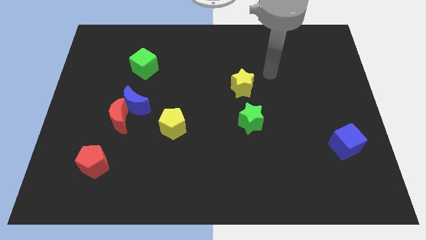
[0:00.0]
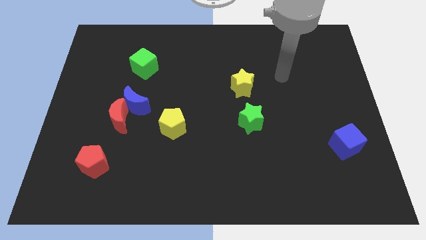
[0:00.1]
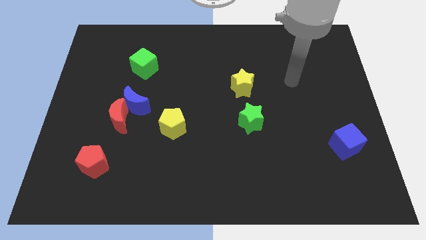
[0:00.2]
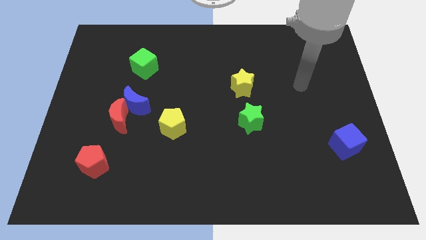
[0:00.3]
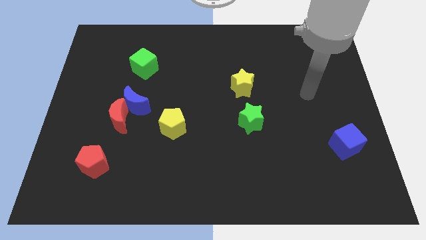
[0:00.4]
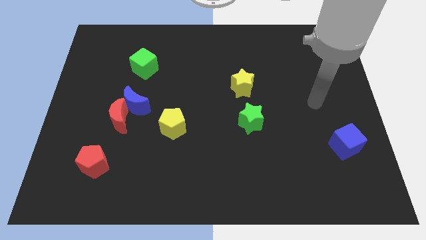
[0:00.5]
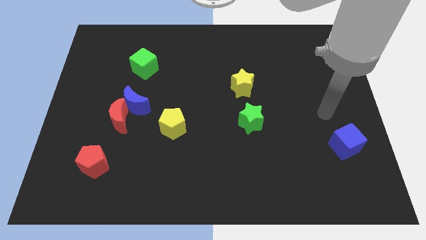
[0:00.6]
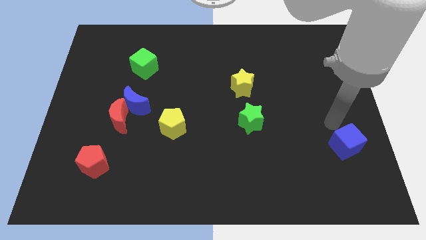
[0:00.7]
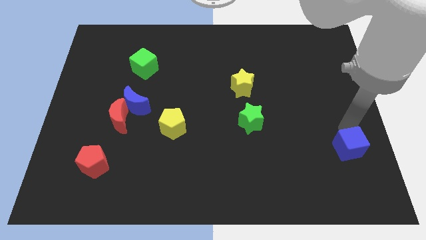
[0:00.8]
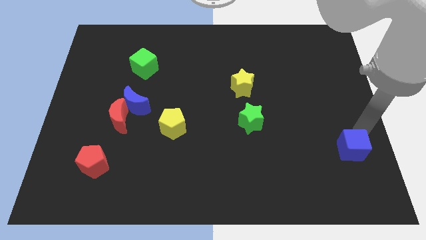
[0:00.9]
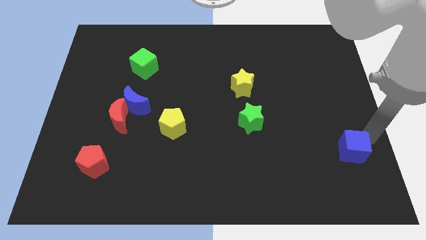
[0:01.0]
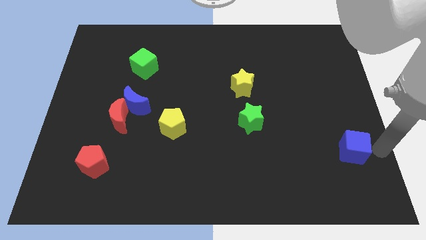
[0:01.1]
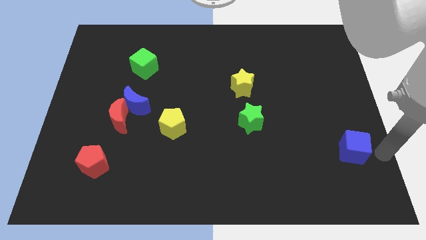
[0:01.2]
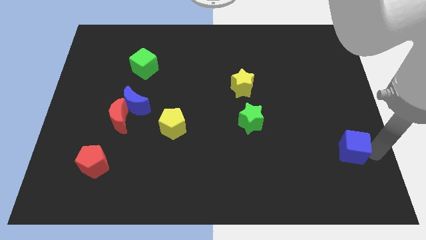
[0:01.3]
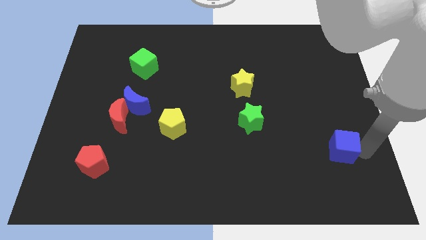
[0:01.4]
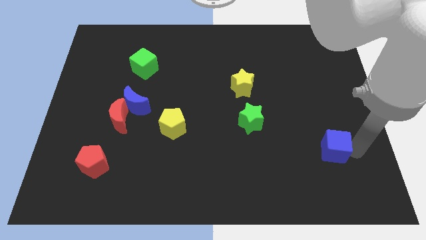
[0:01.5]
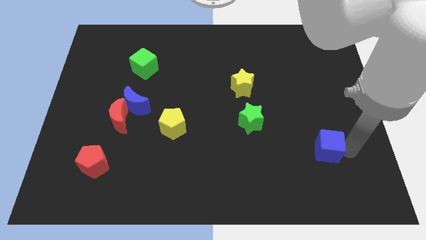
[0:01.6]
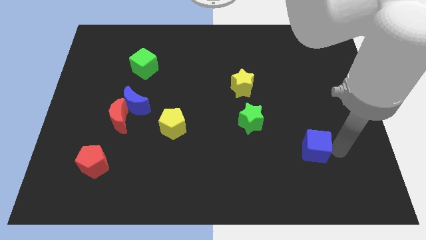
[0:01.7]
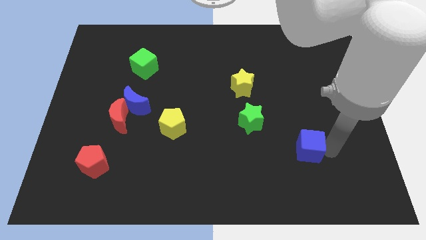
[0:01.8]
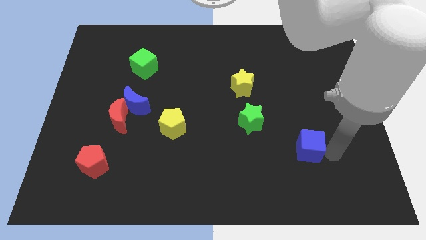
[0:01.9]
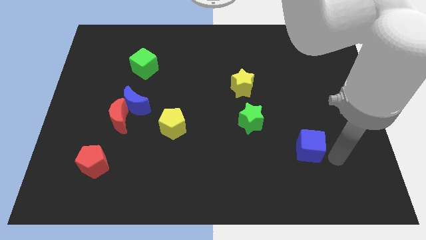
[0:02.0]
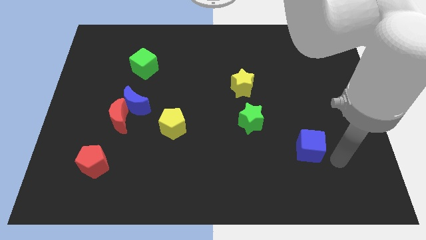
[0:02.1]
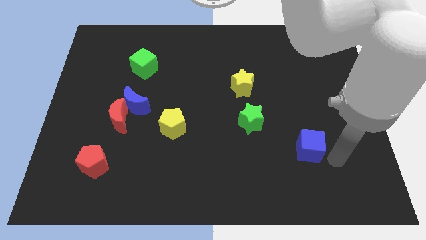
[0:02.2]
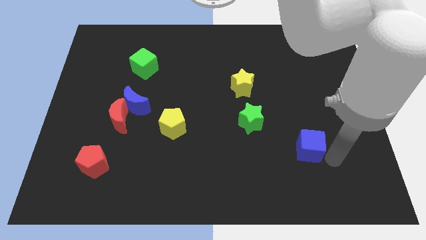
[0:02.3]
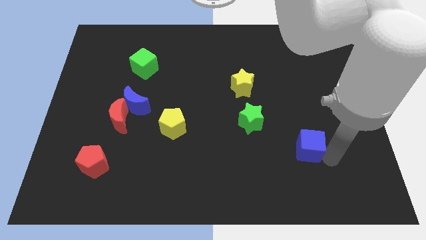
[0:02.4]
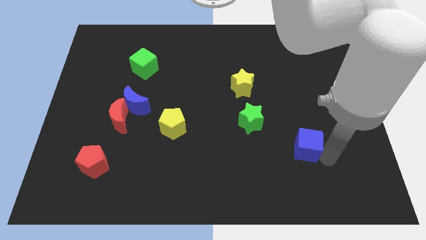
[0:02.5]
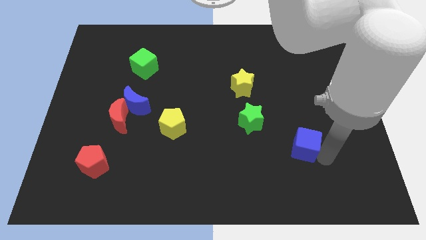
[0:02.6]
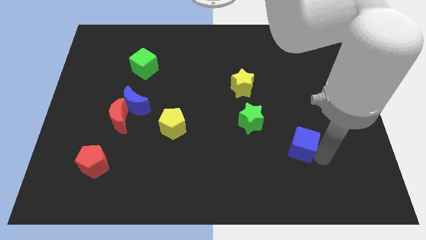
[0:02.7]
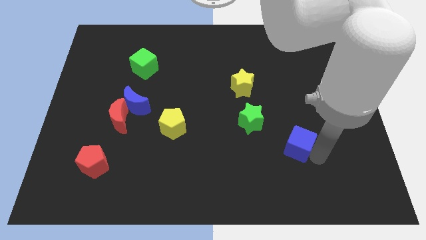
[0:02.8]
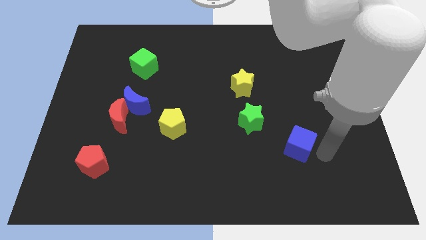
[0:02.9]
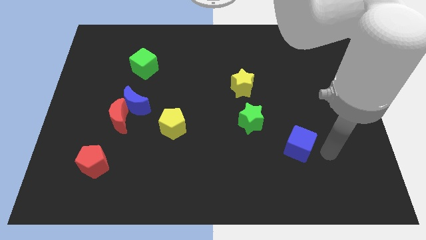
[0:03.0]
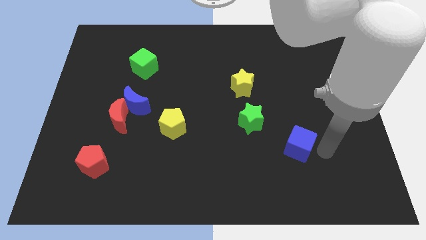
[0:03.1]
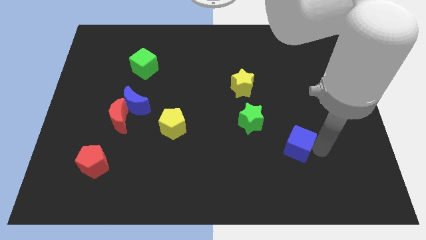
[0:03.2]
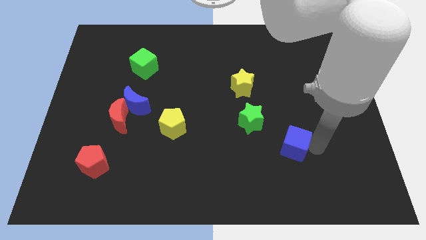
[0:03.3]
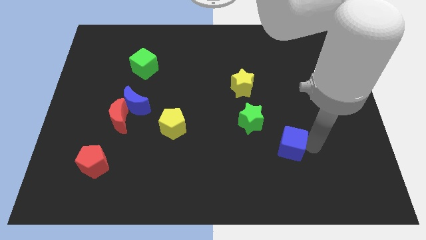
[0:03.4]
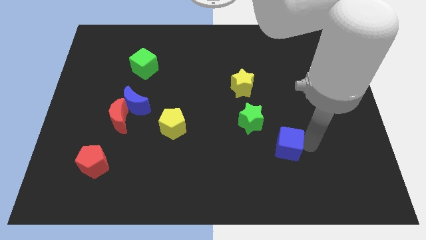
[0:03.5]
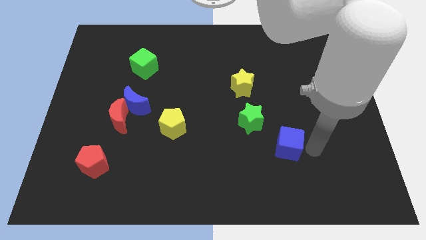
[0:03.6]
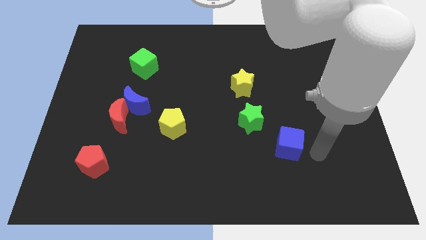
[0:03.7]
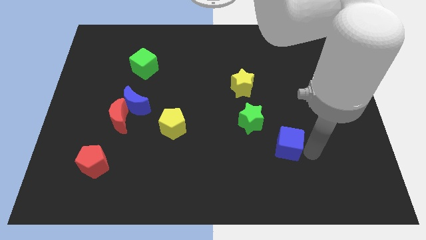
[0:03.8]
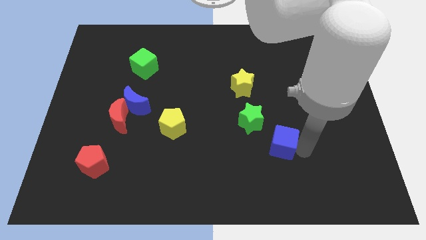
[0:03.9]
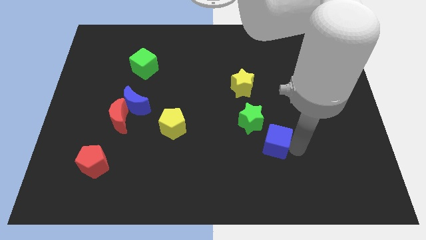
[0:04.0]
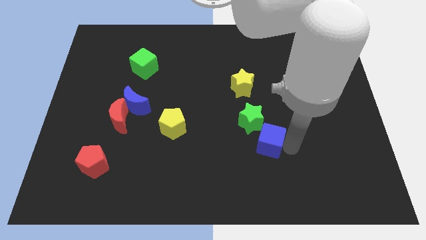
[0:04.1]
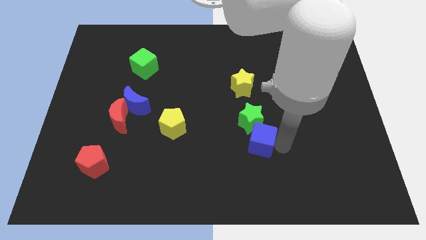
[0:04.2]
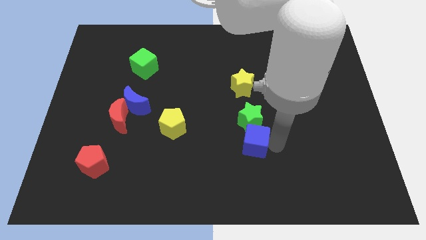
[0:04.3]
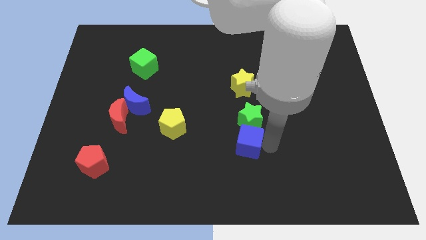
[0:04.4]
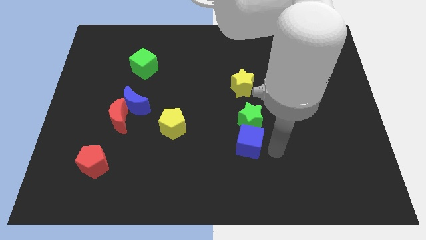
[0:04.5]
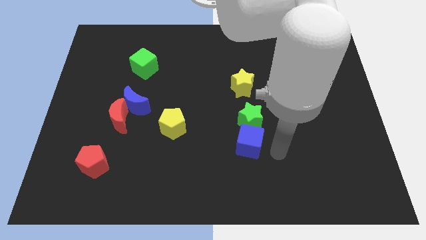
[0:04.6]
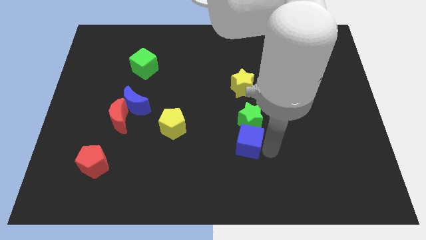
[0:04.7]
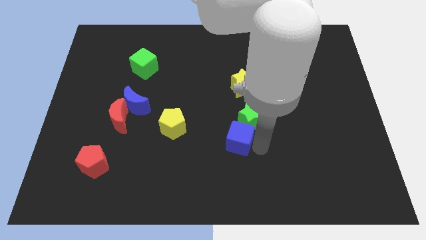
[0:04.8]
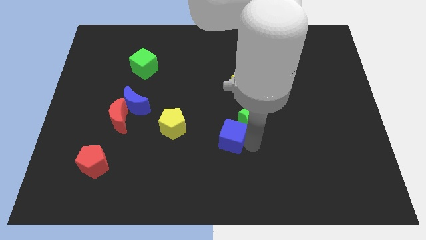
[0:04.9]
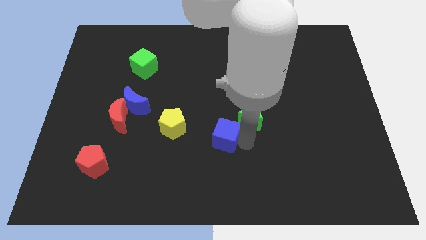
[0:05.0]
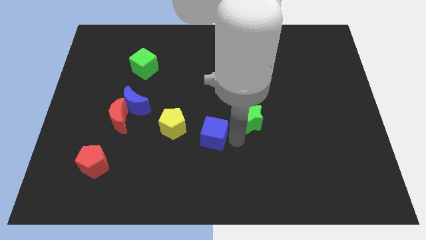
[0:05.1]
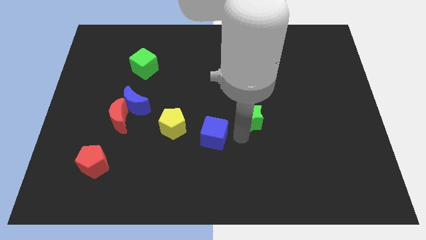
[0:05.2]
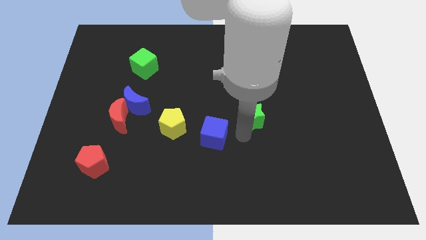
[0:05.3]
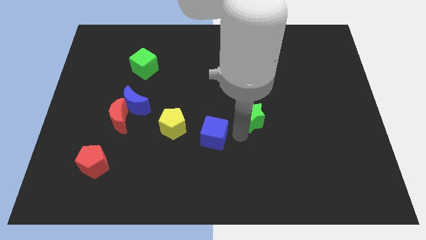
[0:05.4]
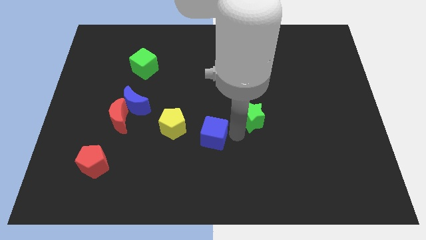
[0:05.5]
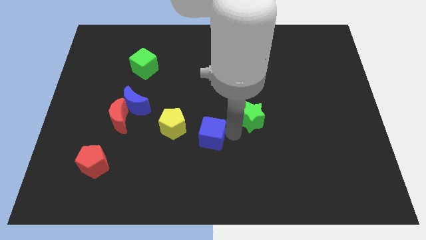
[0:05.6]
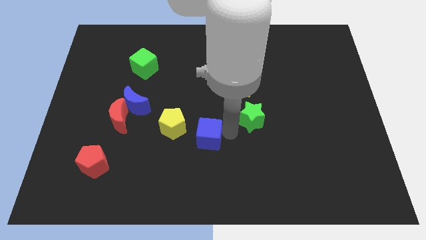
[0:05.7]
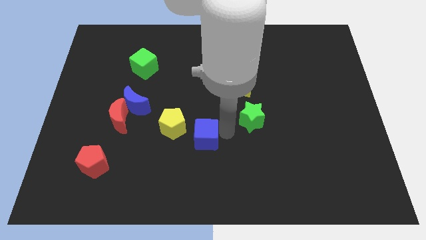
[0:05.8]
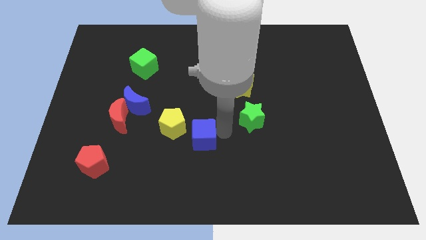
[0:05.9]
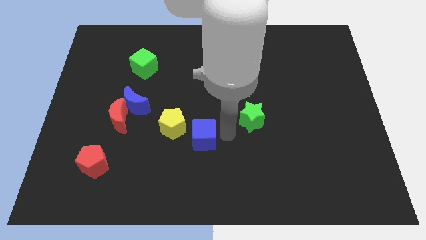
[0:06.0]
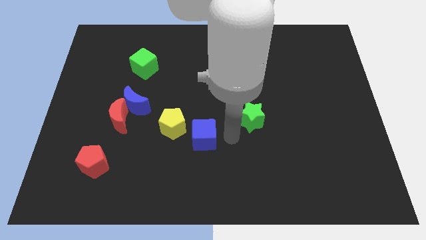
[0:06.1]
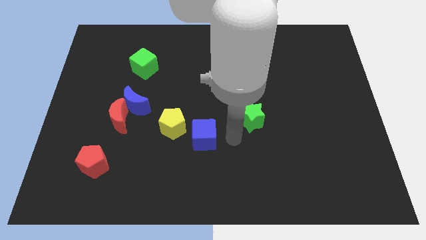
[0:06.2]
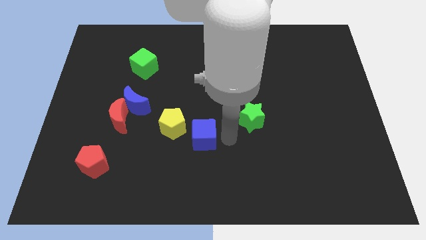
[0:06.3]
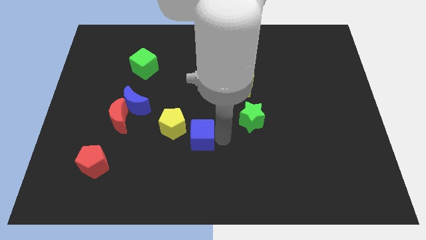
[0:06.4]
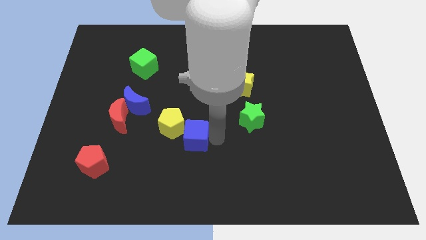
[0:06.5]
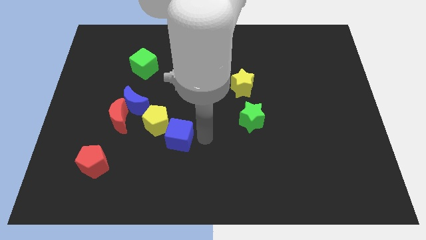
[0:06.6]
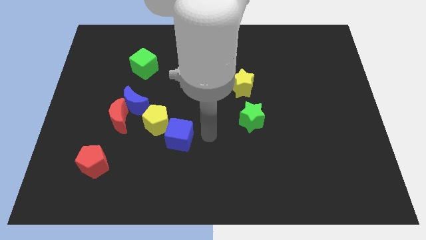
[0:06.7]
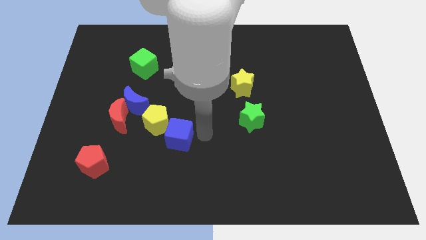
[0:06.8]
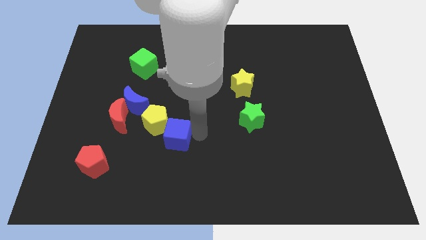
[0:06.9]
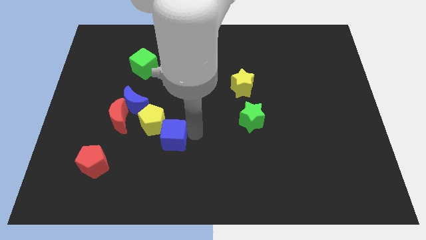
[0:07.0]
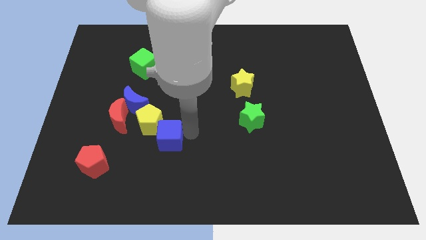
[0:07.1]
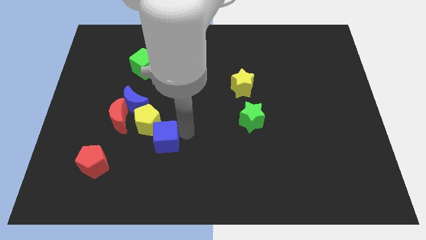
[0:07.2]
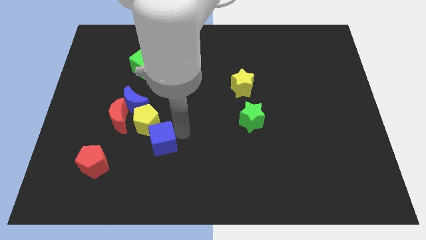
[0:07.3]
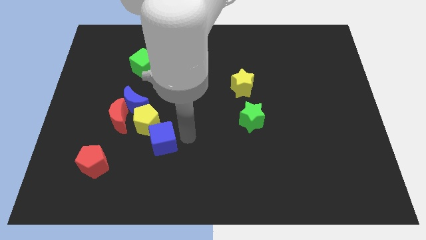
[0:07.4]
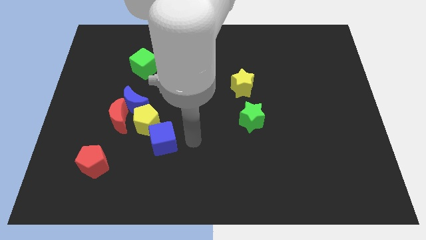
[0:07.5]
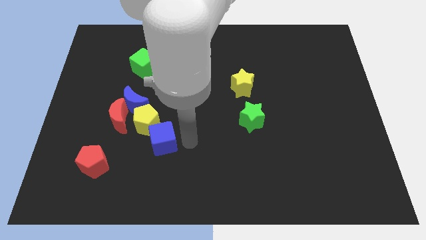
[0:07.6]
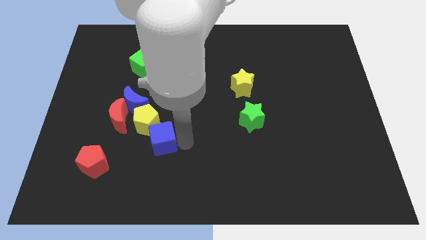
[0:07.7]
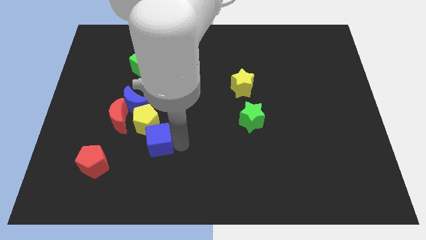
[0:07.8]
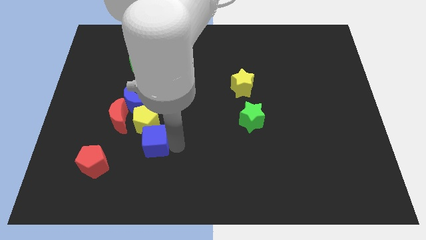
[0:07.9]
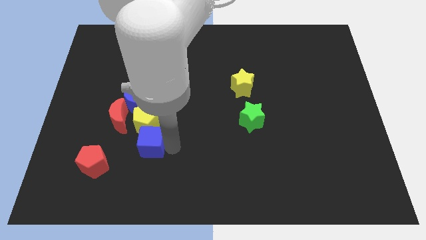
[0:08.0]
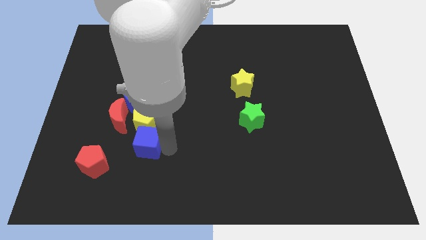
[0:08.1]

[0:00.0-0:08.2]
slide the blue cube to the bottom left of the yellow pentagon
